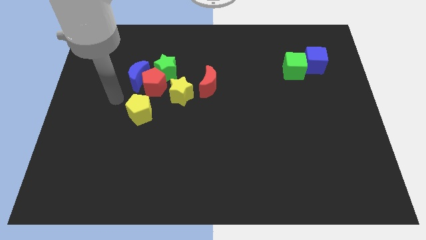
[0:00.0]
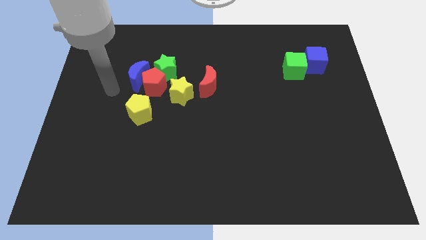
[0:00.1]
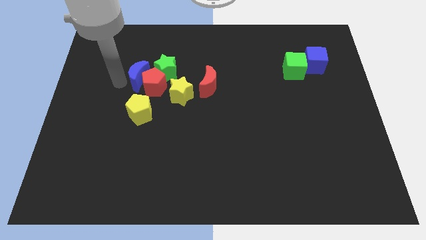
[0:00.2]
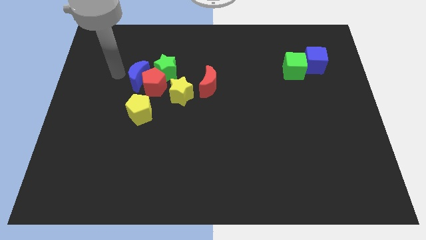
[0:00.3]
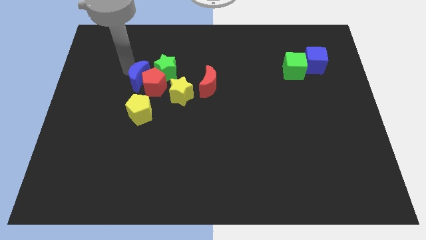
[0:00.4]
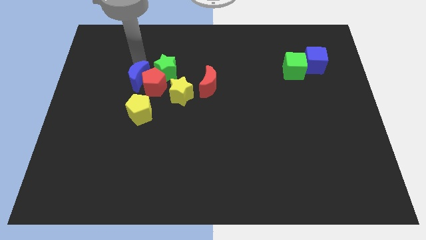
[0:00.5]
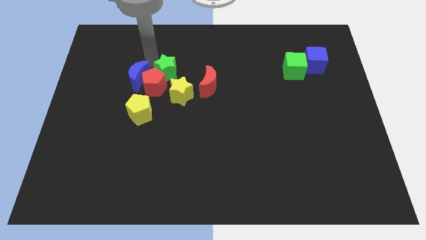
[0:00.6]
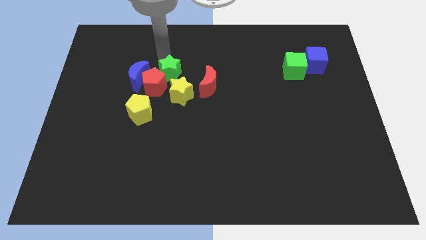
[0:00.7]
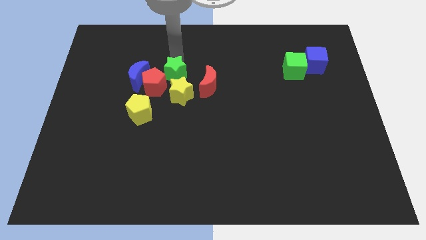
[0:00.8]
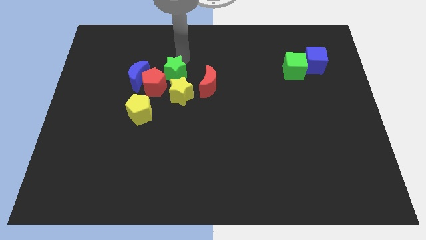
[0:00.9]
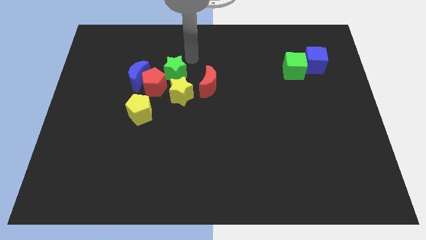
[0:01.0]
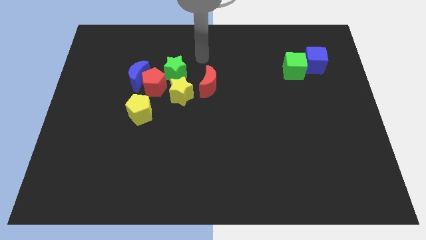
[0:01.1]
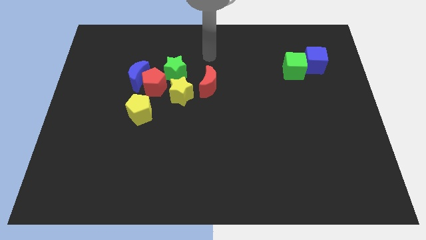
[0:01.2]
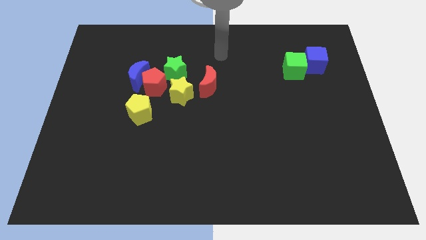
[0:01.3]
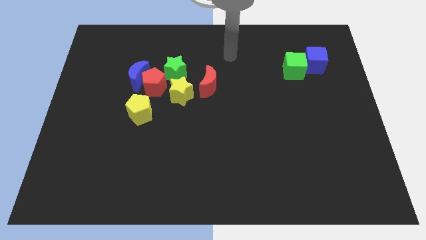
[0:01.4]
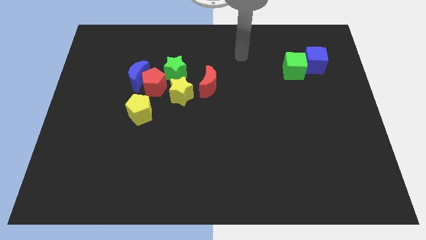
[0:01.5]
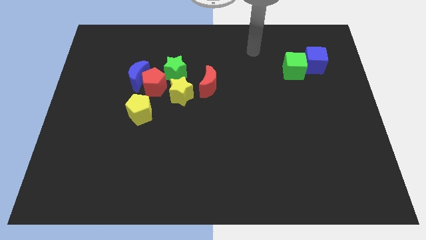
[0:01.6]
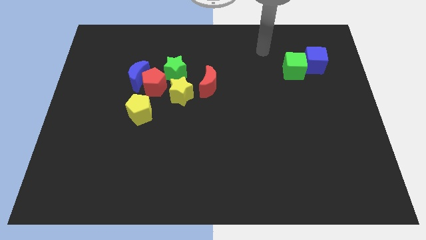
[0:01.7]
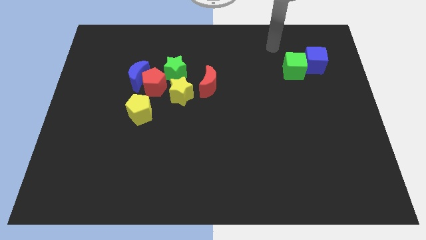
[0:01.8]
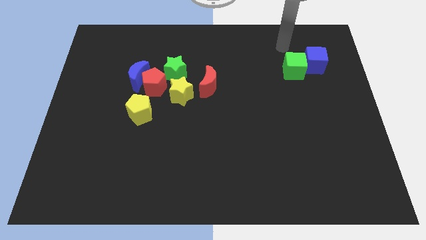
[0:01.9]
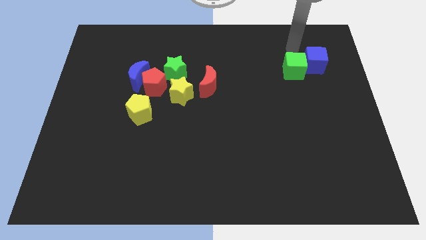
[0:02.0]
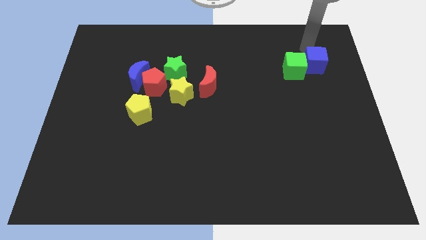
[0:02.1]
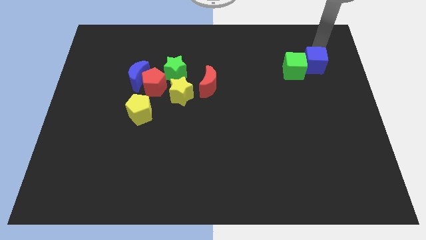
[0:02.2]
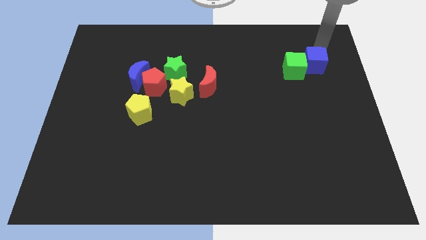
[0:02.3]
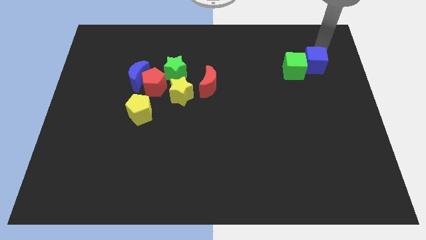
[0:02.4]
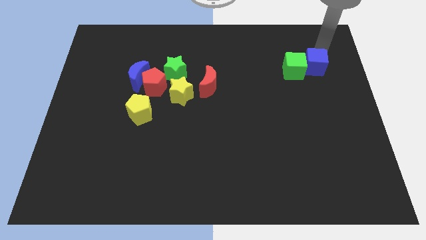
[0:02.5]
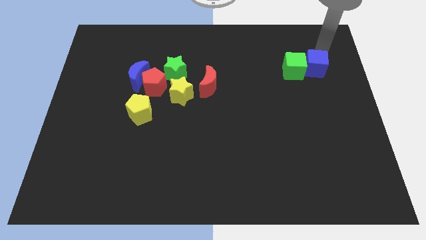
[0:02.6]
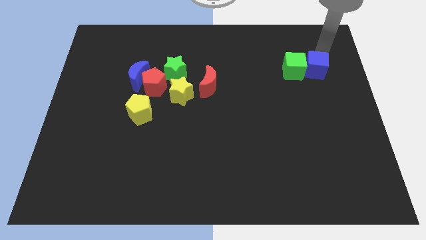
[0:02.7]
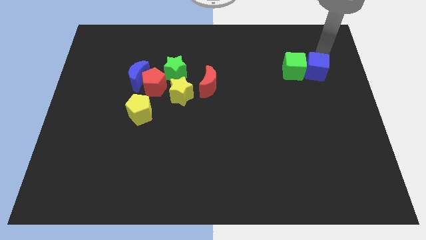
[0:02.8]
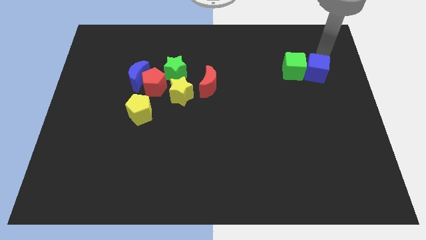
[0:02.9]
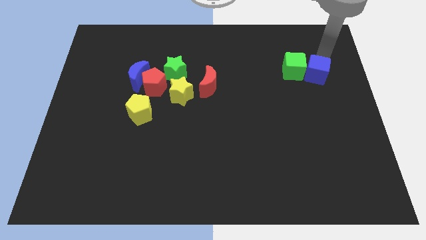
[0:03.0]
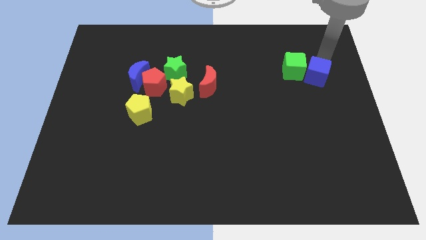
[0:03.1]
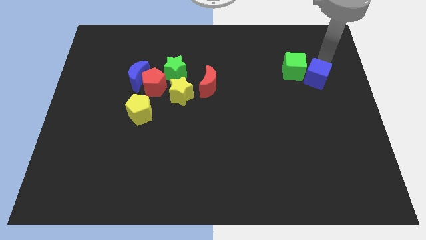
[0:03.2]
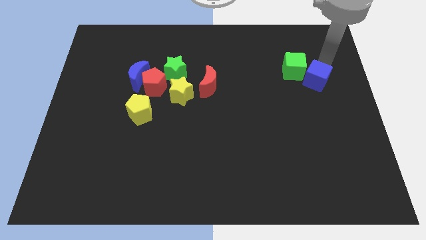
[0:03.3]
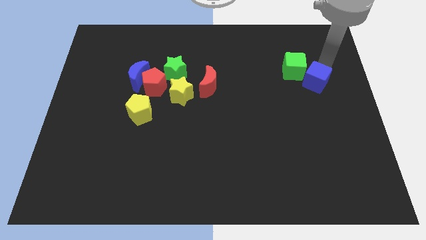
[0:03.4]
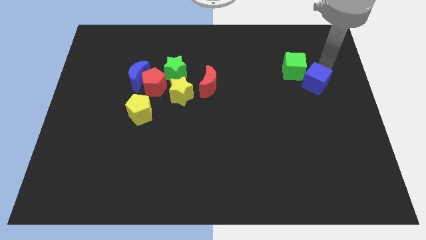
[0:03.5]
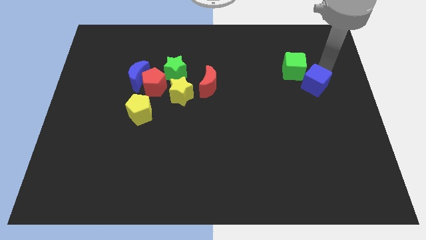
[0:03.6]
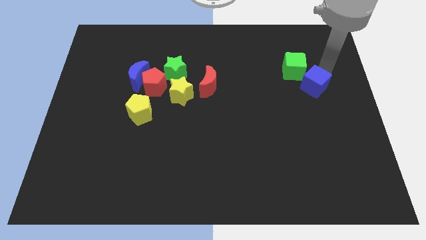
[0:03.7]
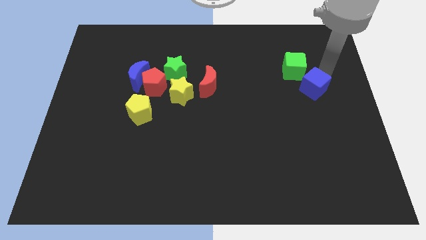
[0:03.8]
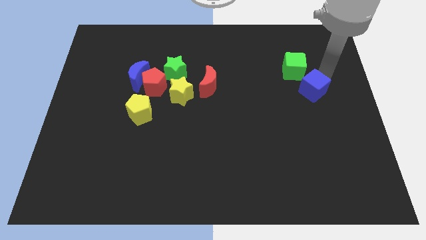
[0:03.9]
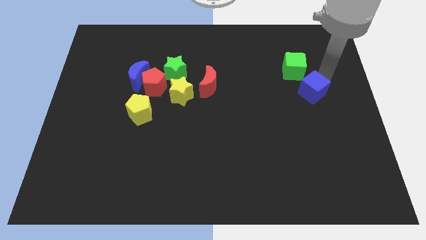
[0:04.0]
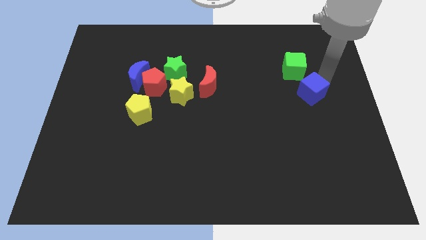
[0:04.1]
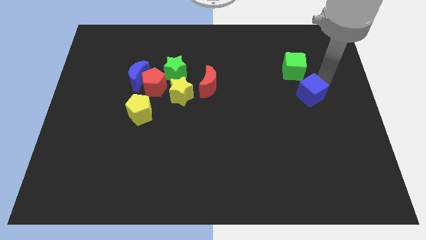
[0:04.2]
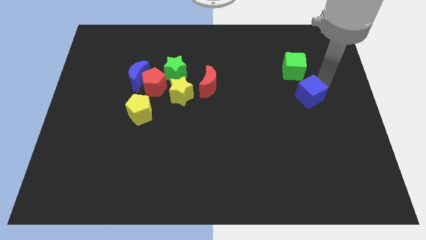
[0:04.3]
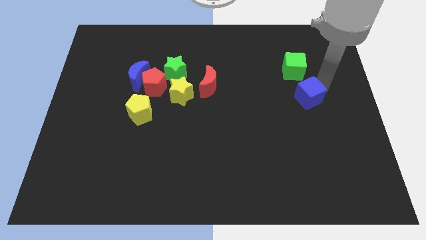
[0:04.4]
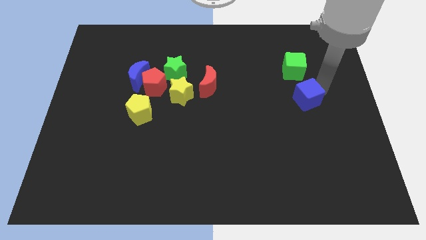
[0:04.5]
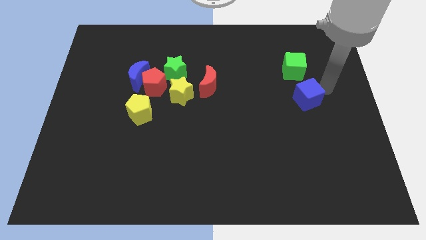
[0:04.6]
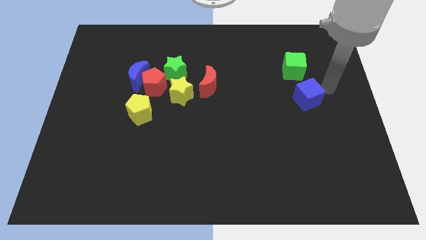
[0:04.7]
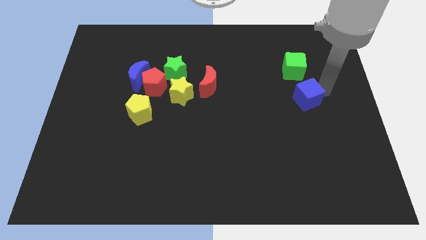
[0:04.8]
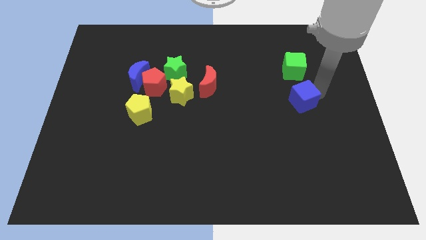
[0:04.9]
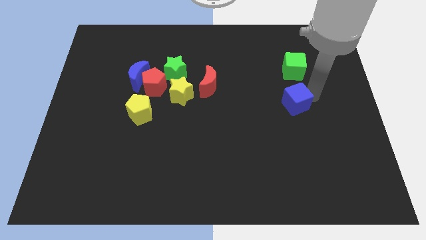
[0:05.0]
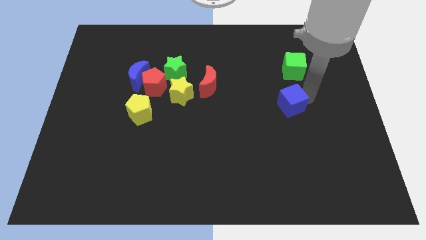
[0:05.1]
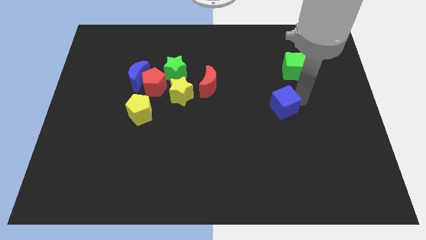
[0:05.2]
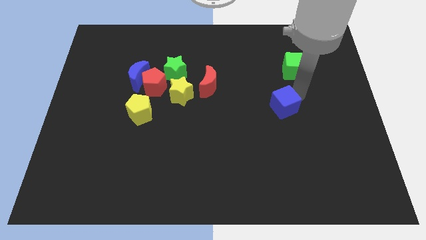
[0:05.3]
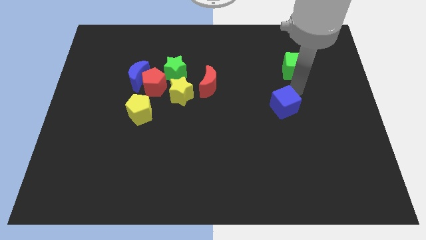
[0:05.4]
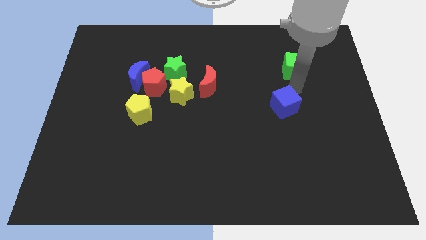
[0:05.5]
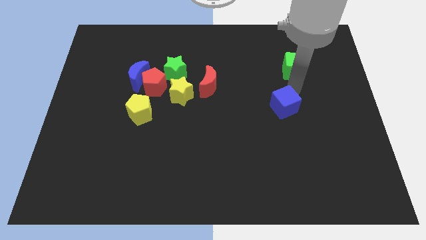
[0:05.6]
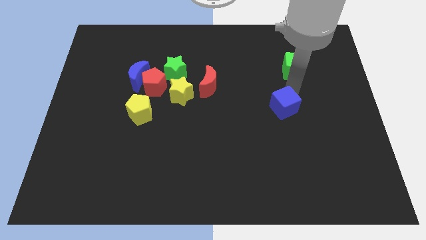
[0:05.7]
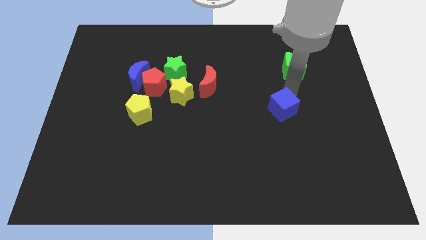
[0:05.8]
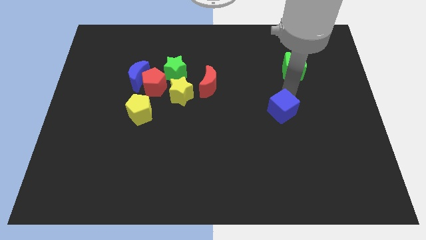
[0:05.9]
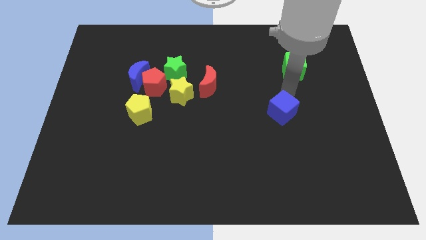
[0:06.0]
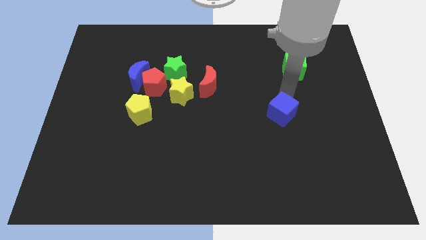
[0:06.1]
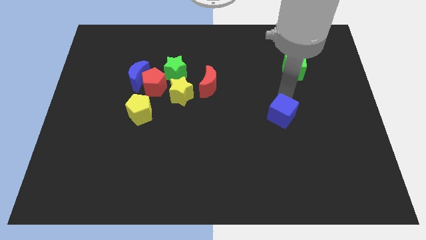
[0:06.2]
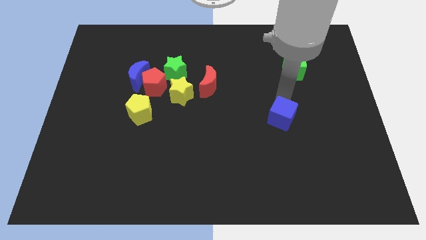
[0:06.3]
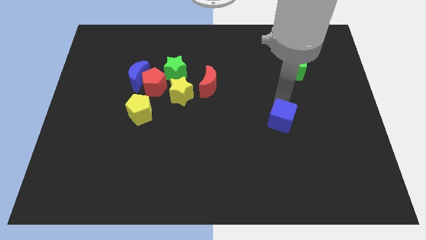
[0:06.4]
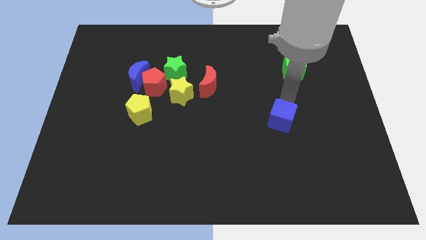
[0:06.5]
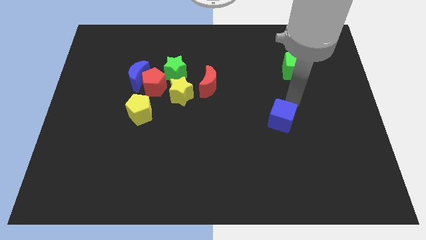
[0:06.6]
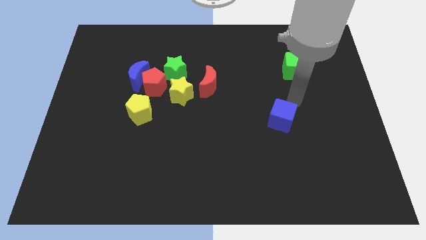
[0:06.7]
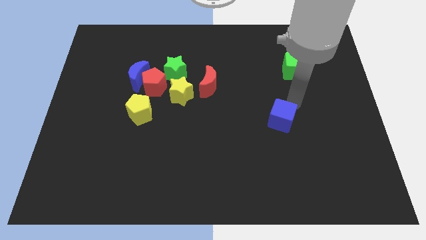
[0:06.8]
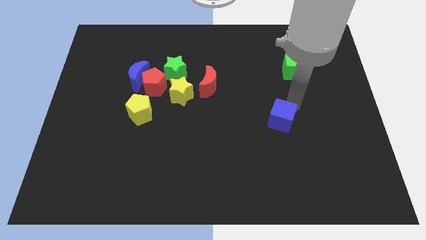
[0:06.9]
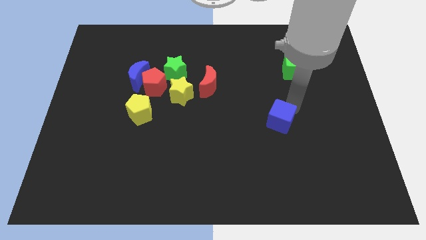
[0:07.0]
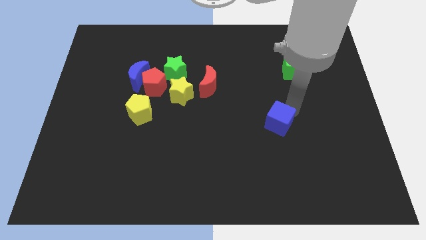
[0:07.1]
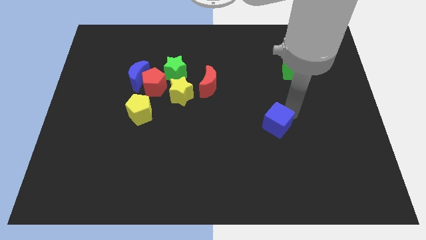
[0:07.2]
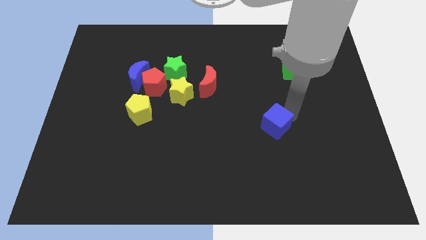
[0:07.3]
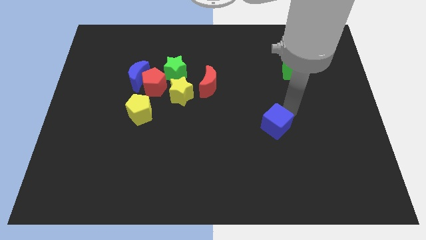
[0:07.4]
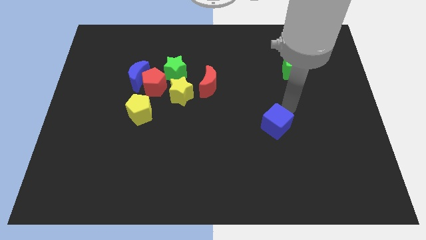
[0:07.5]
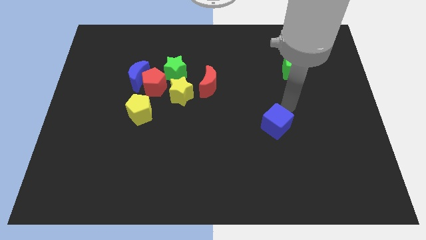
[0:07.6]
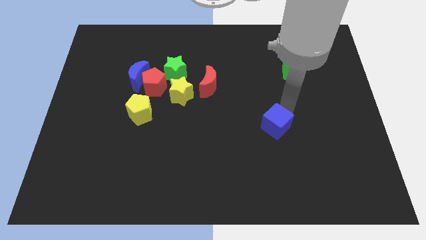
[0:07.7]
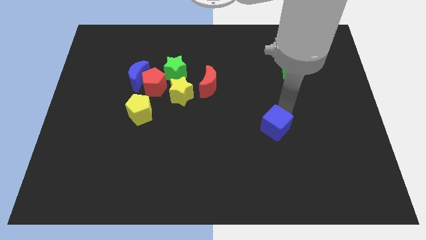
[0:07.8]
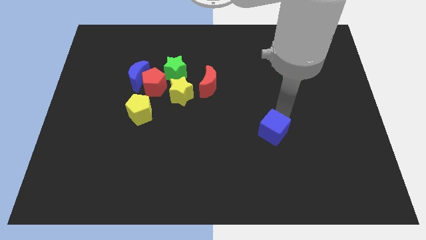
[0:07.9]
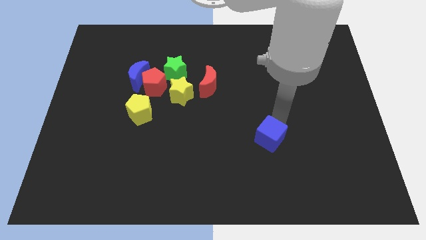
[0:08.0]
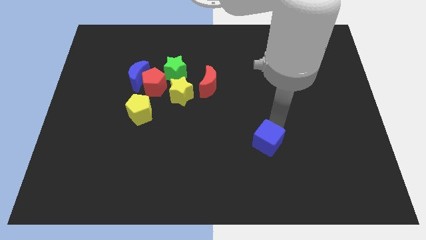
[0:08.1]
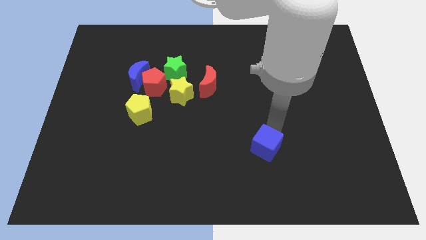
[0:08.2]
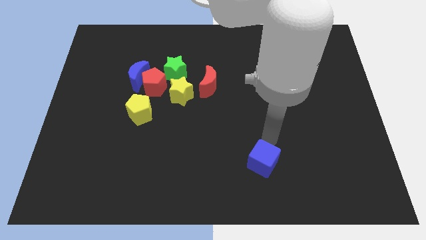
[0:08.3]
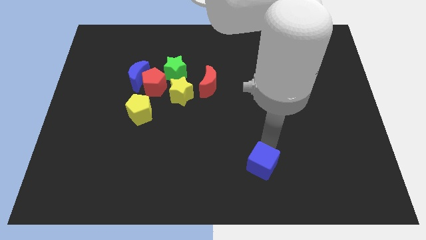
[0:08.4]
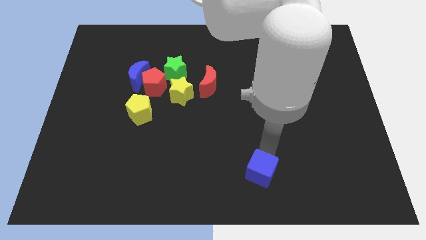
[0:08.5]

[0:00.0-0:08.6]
move the blue cube to the bottom side
